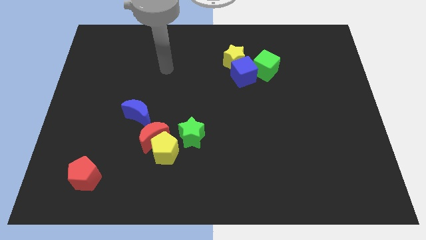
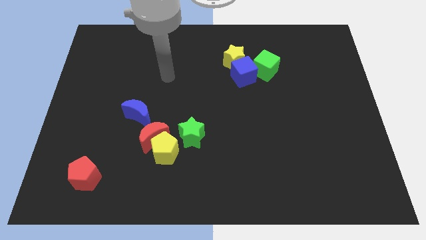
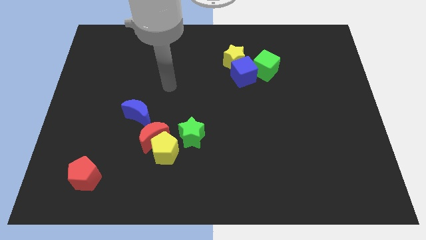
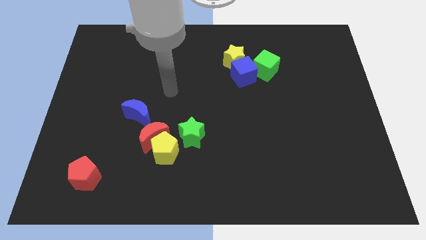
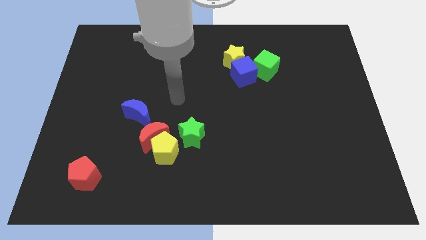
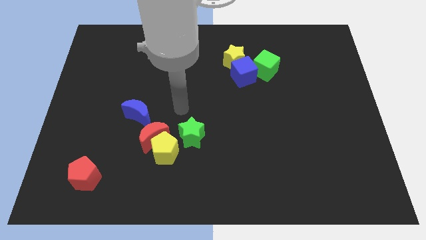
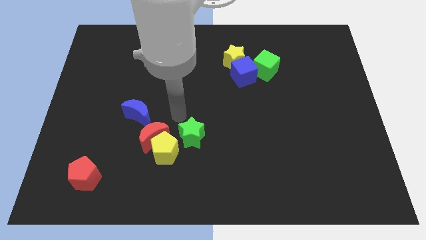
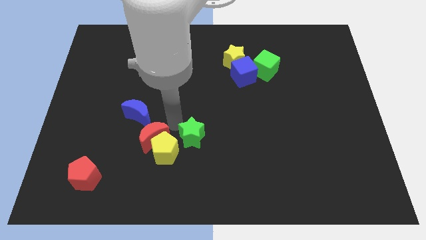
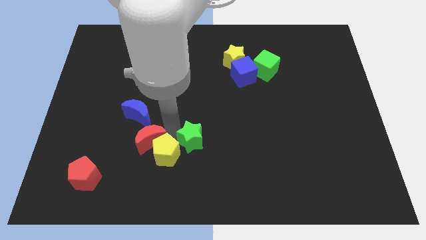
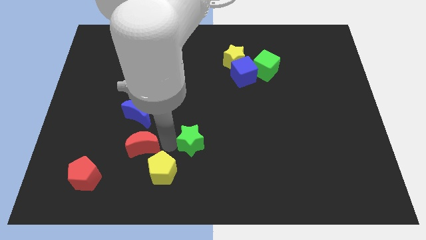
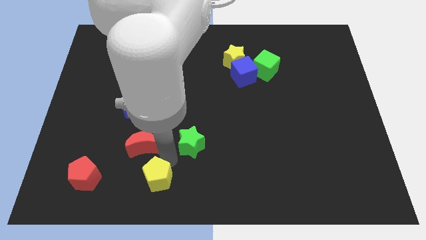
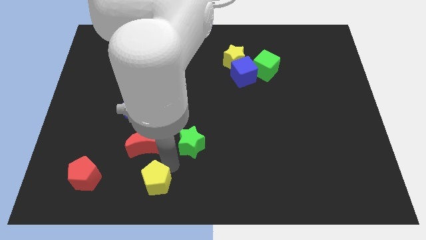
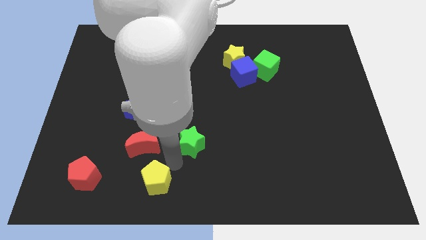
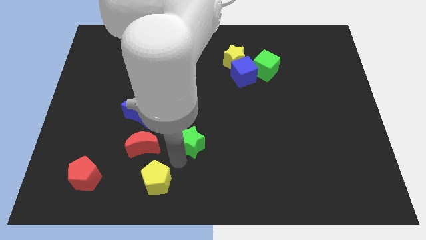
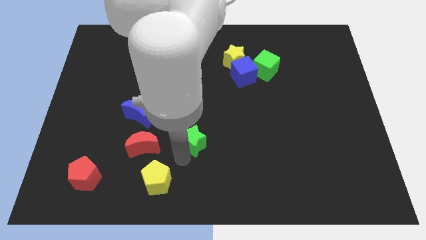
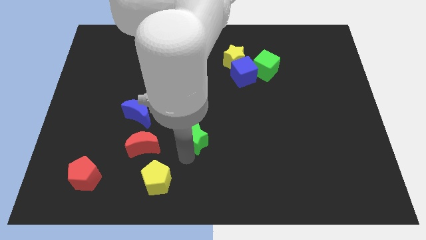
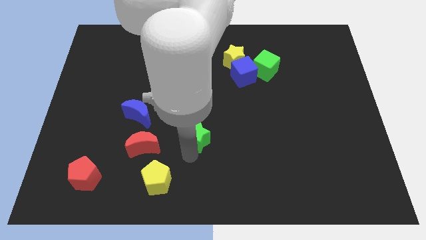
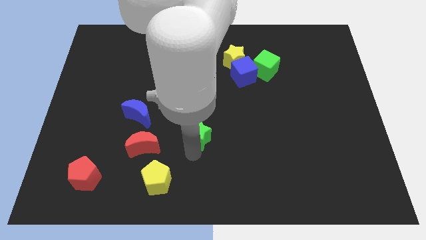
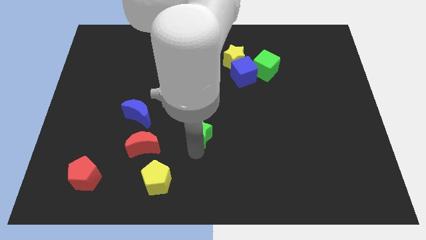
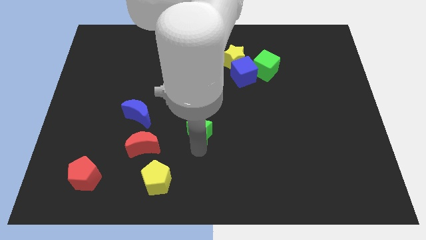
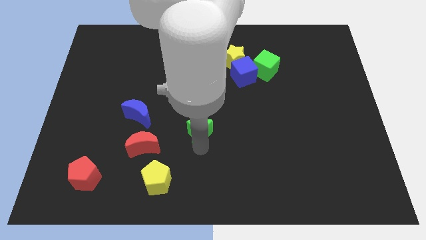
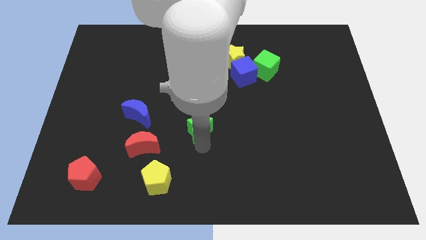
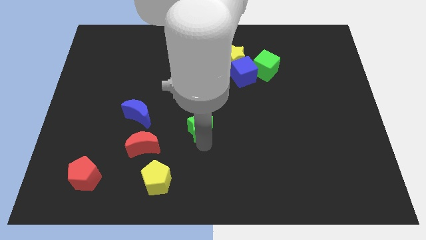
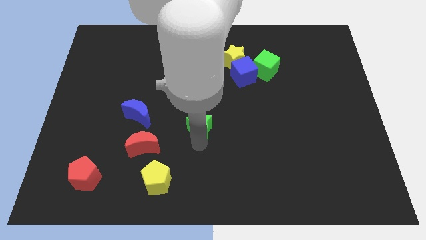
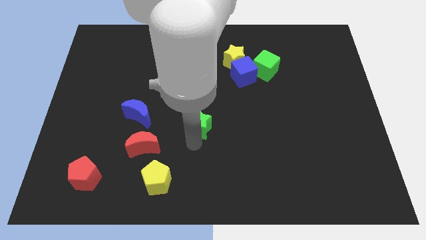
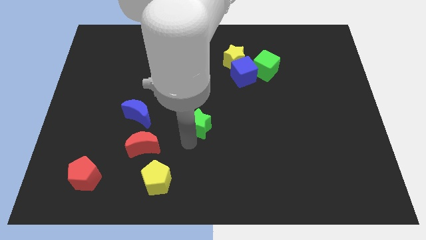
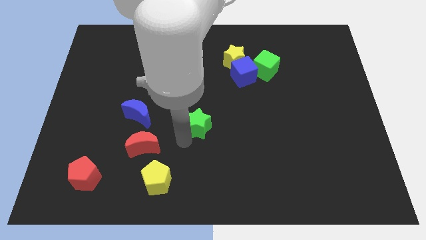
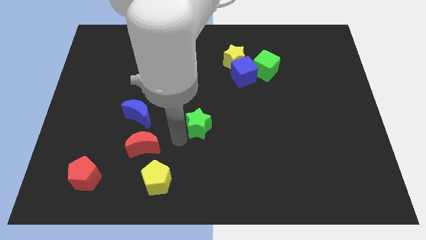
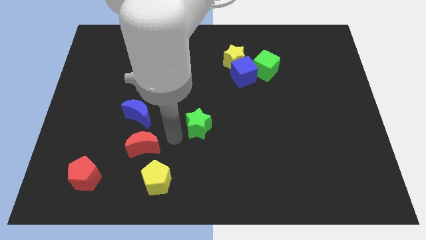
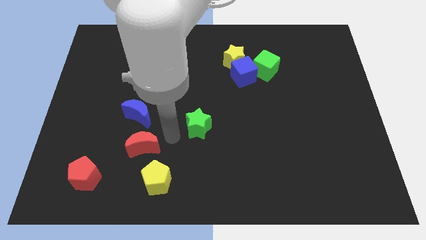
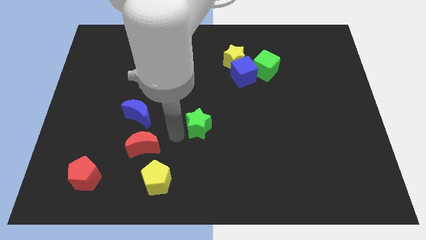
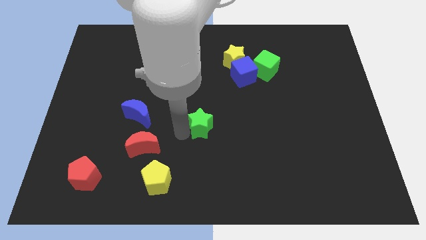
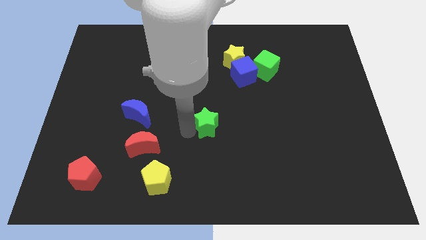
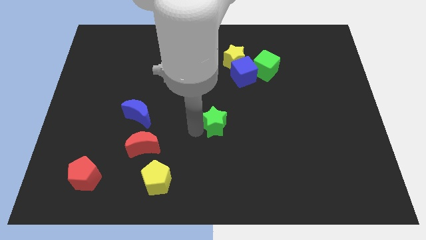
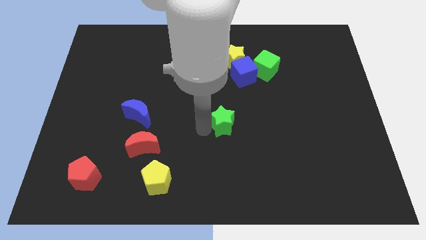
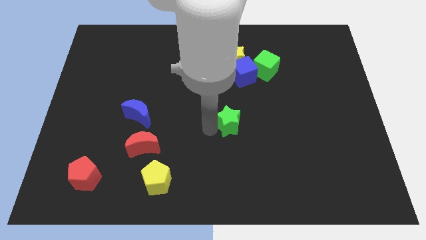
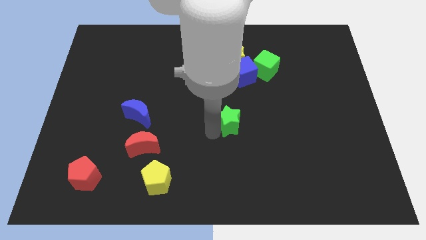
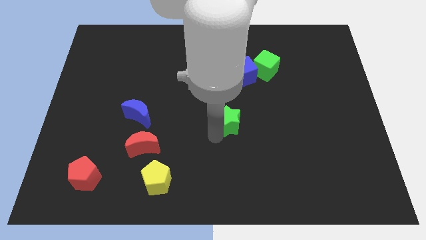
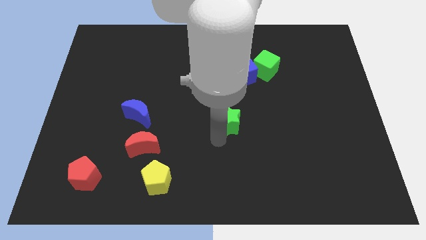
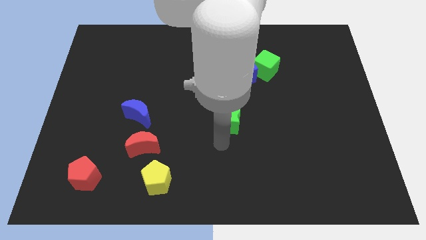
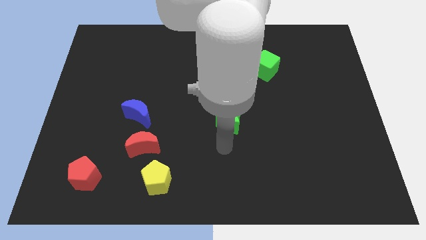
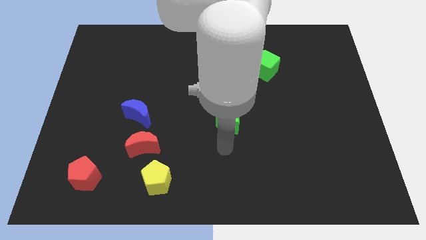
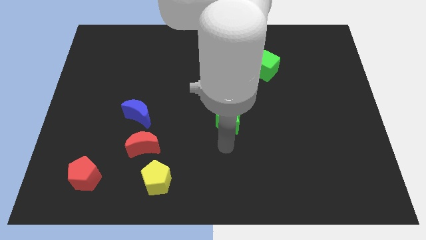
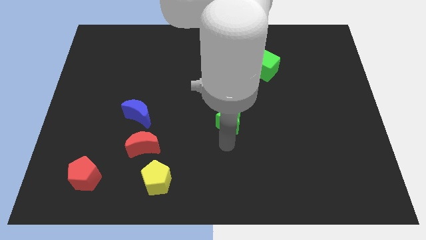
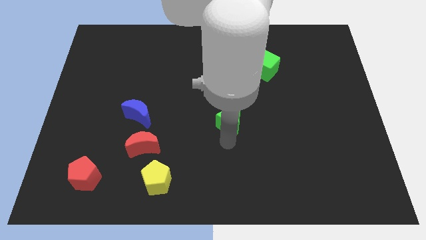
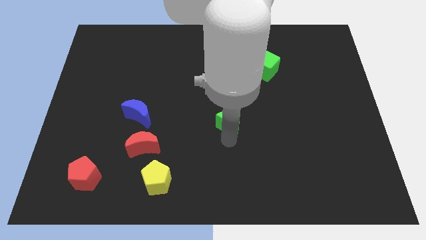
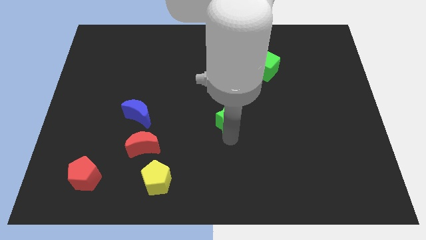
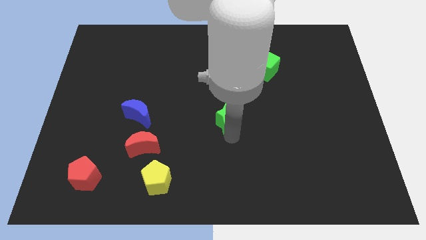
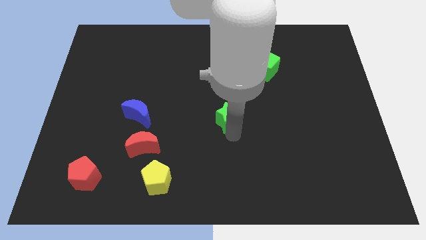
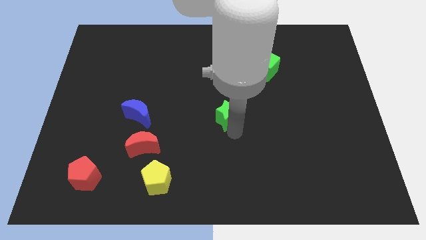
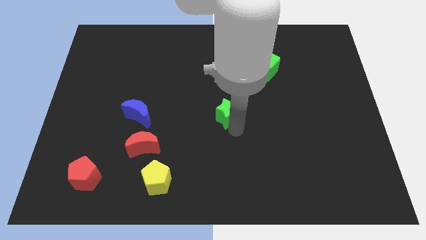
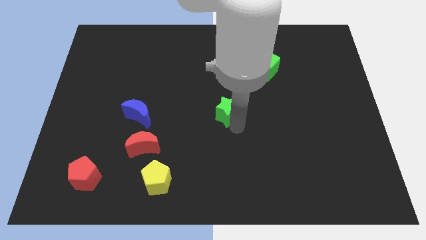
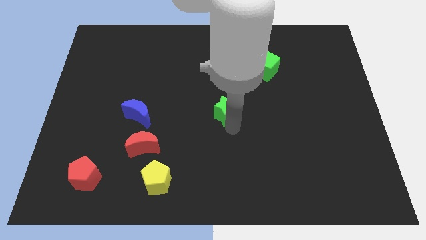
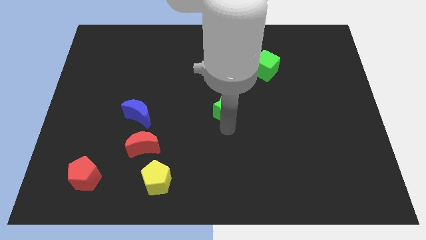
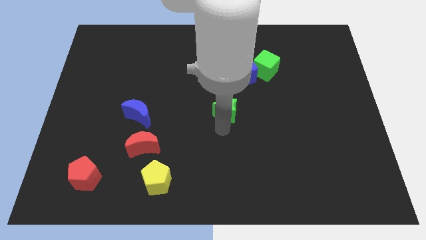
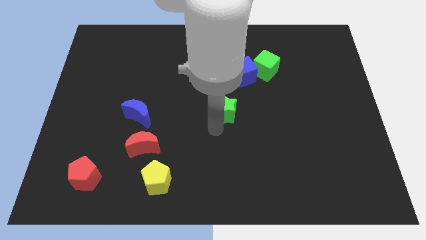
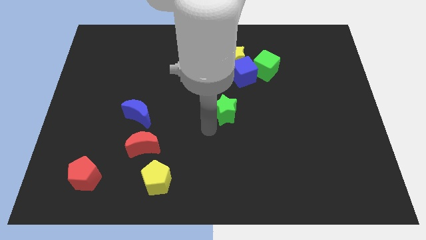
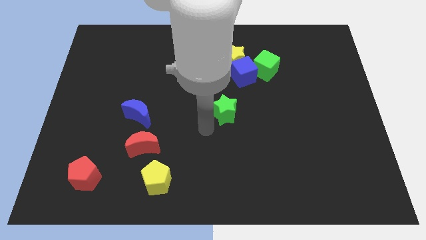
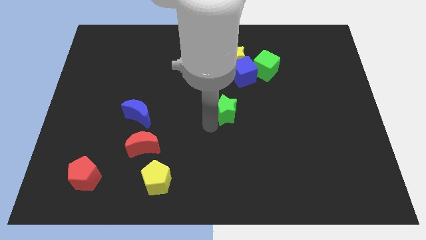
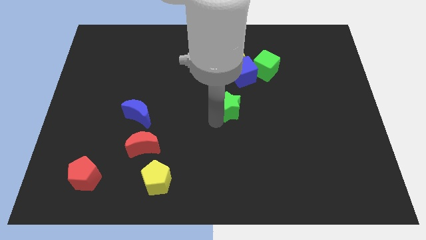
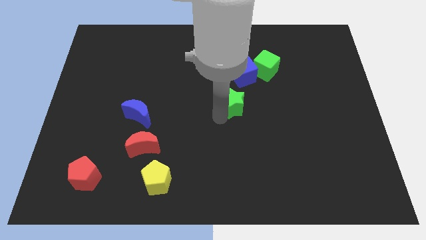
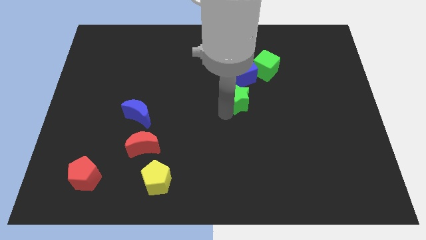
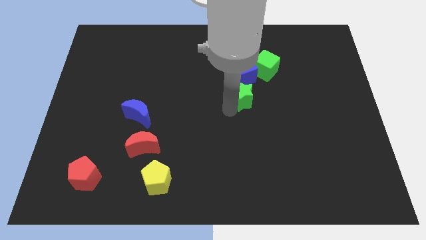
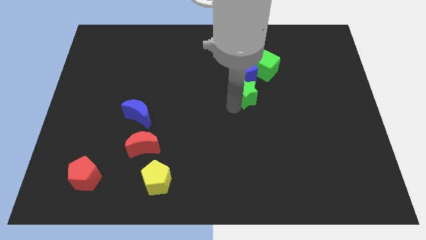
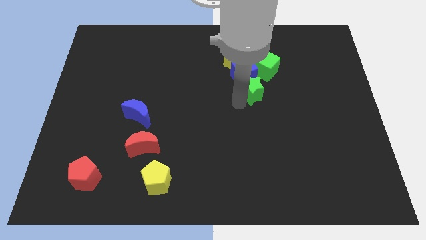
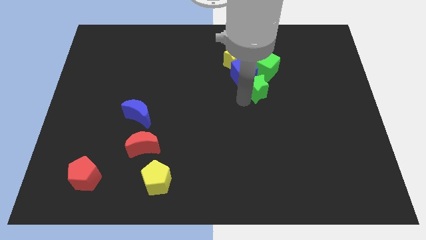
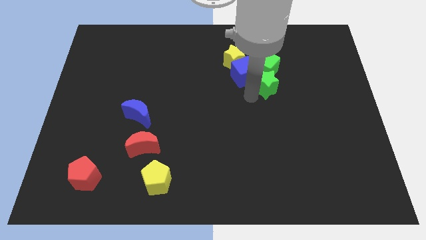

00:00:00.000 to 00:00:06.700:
move the green star to the green cube

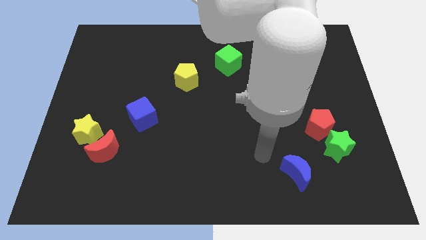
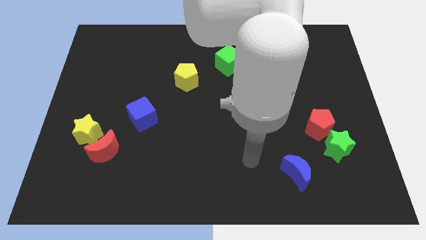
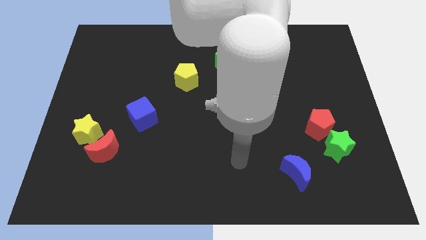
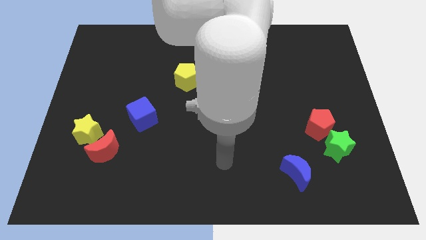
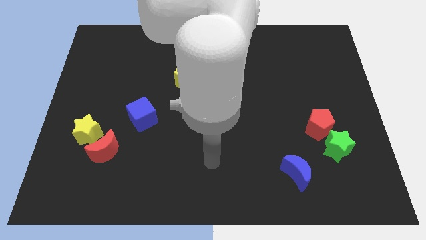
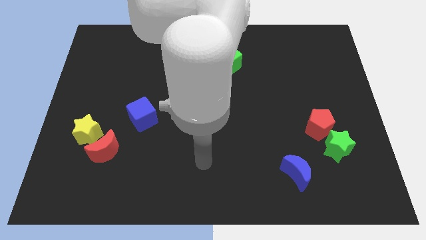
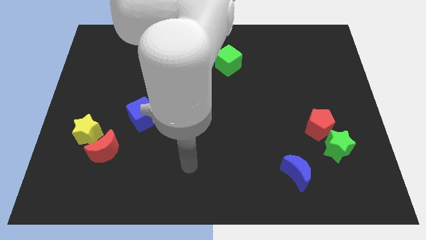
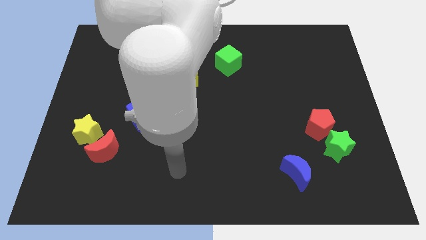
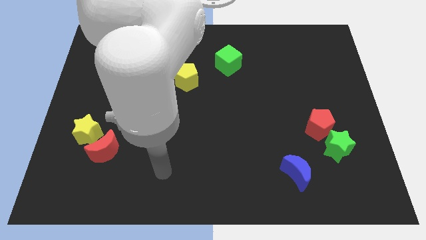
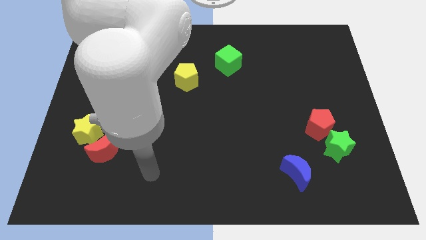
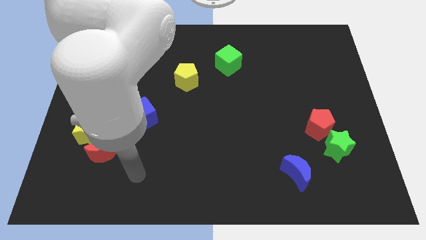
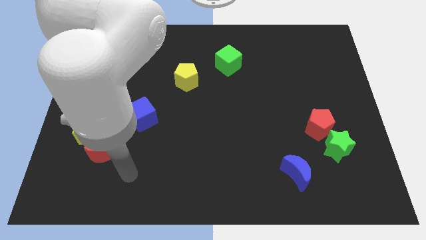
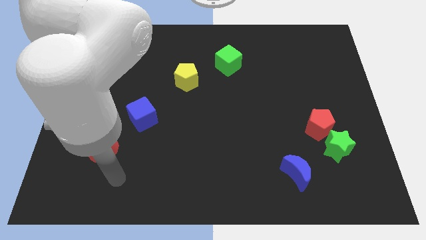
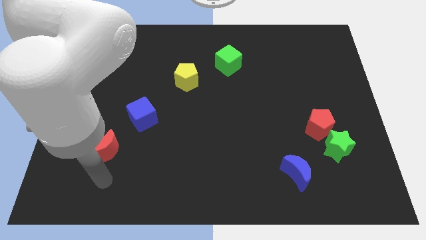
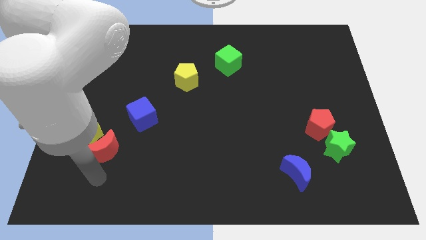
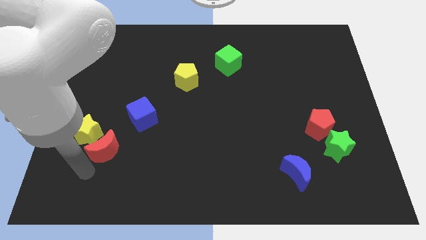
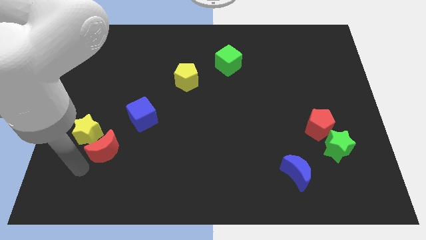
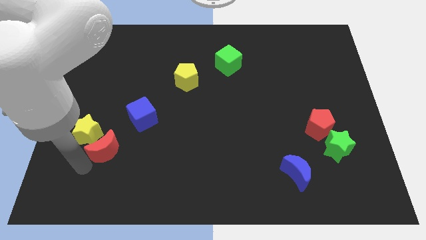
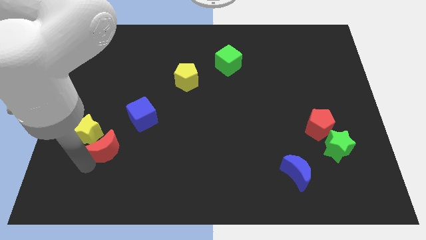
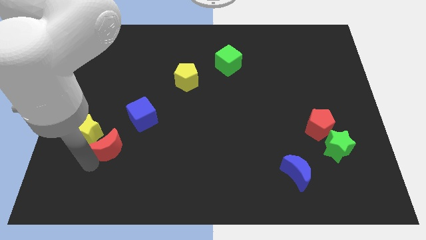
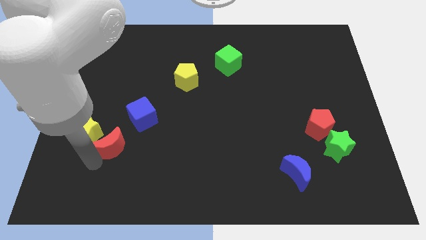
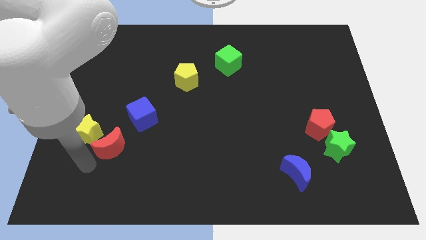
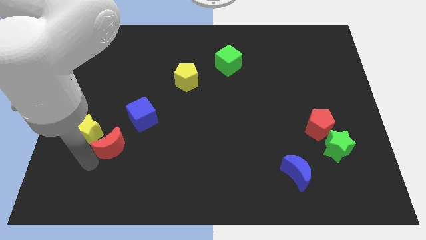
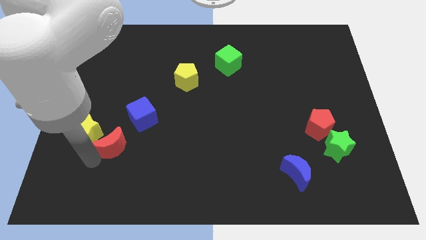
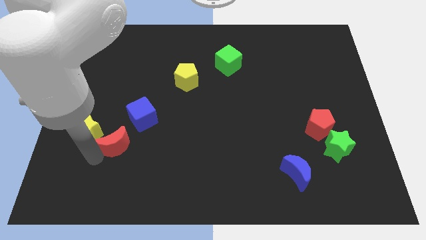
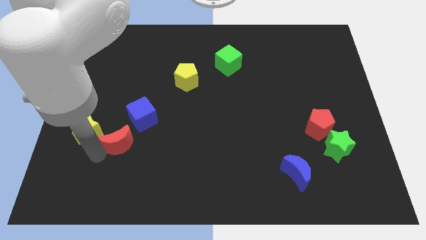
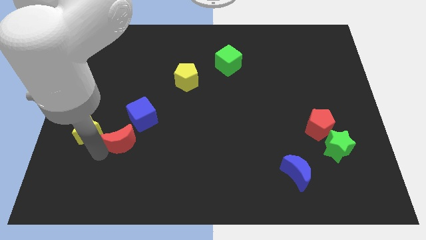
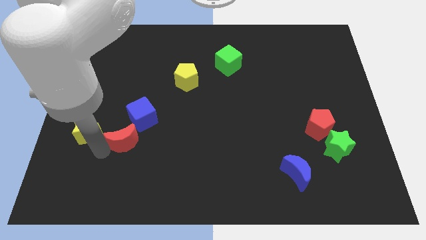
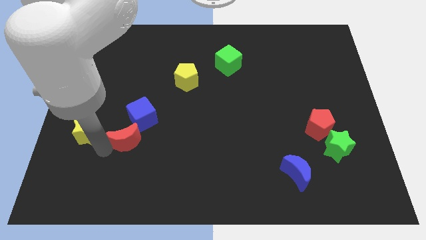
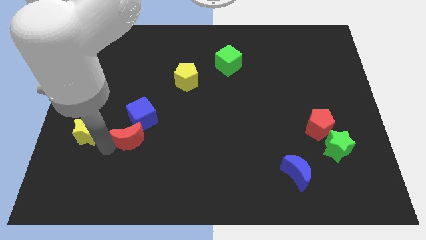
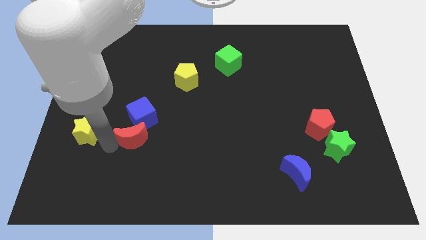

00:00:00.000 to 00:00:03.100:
put the red moon to the blue cube
